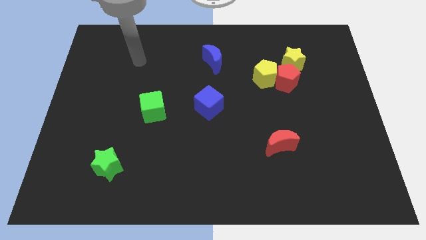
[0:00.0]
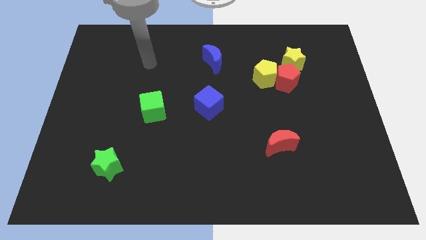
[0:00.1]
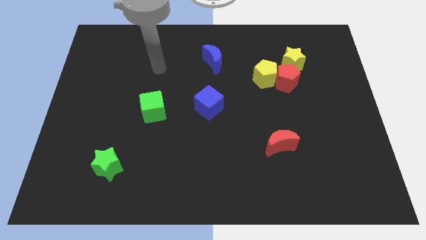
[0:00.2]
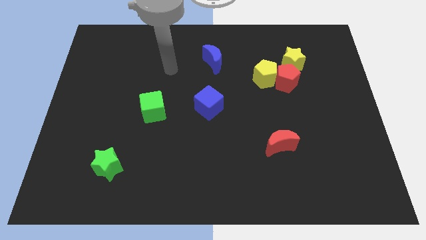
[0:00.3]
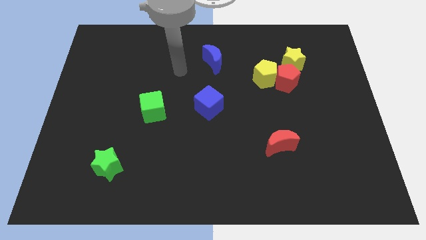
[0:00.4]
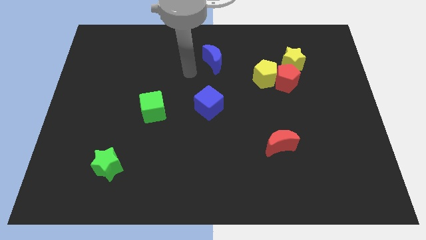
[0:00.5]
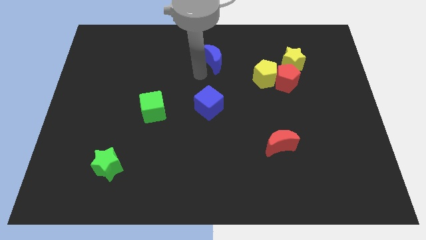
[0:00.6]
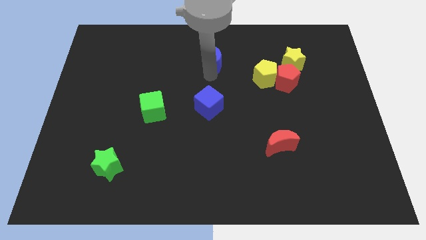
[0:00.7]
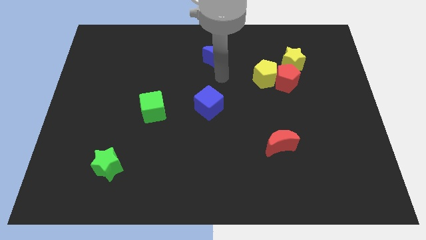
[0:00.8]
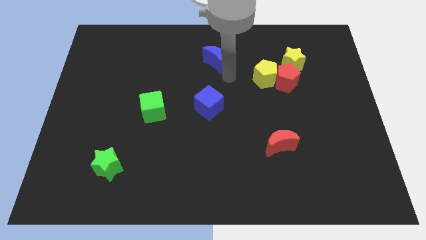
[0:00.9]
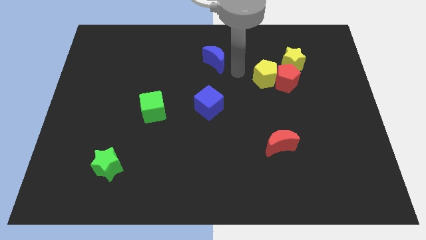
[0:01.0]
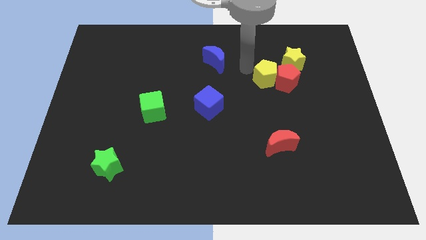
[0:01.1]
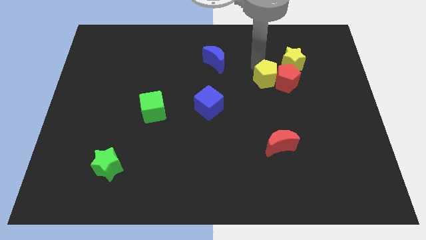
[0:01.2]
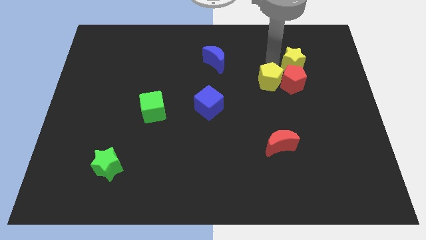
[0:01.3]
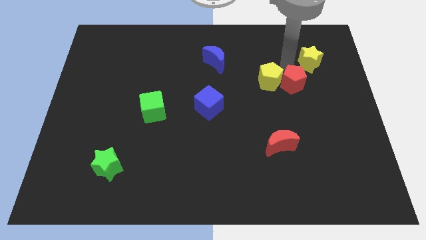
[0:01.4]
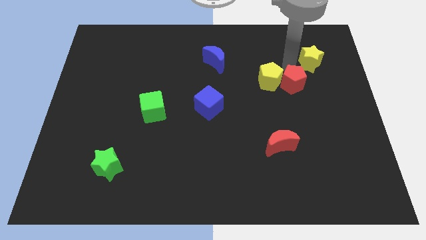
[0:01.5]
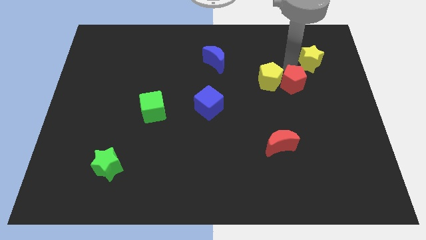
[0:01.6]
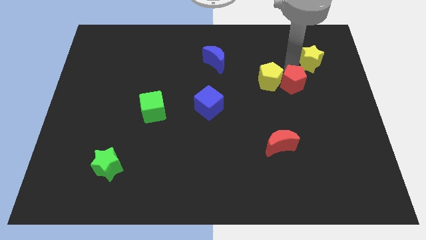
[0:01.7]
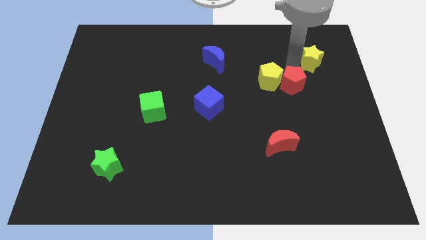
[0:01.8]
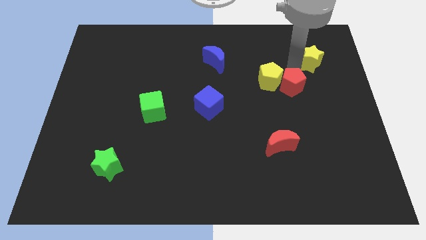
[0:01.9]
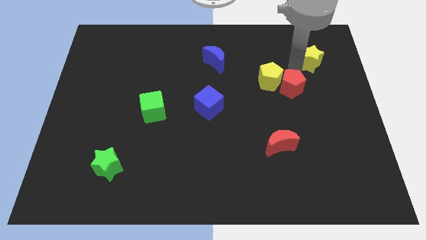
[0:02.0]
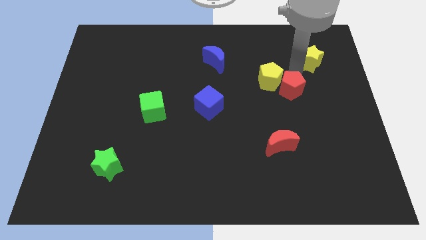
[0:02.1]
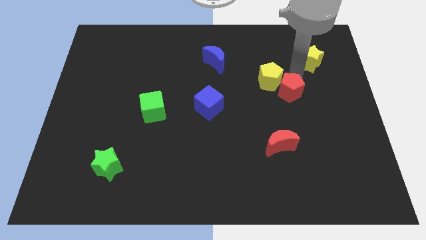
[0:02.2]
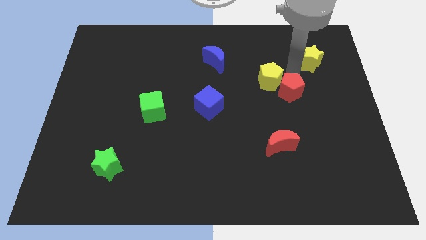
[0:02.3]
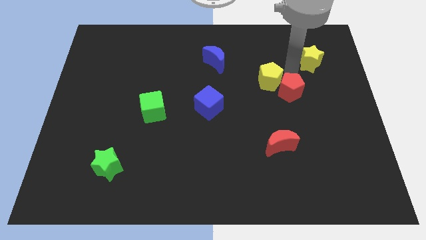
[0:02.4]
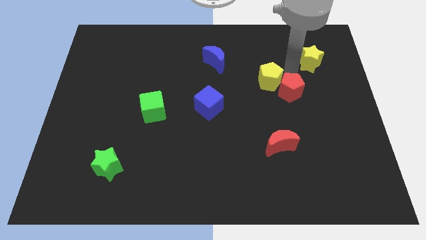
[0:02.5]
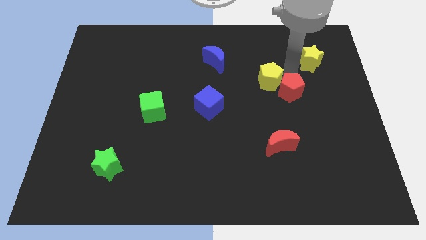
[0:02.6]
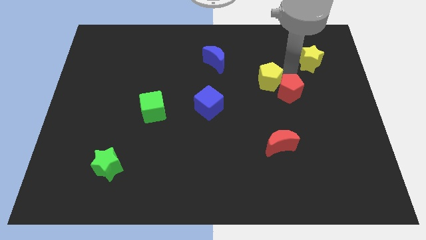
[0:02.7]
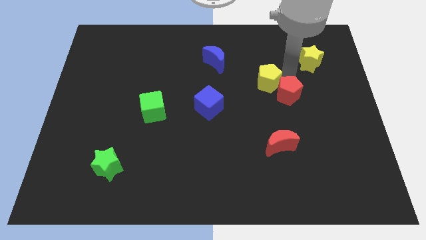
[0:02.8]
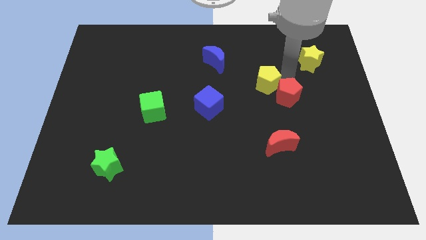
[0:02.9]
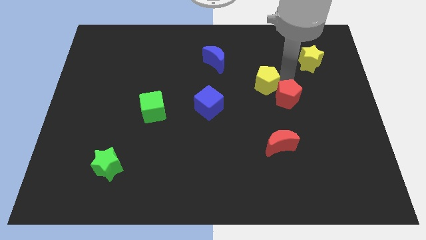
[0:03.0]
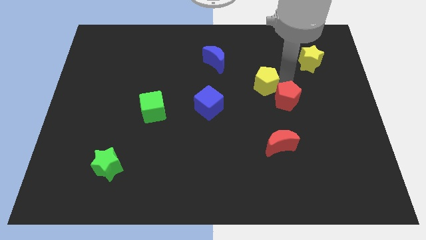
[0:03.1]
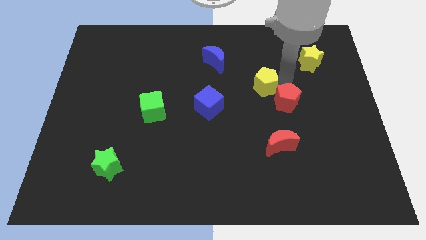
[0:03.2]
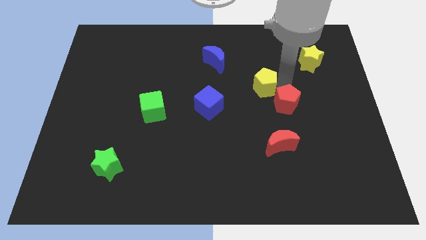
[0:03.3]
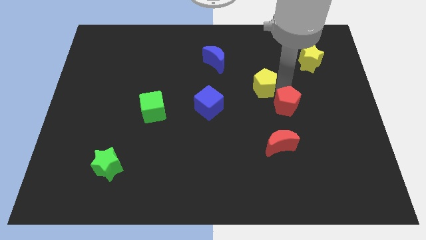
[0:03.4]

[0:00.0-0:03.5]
pull the red pentagon apart from the yellow pentagon and yellow star

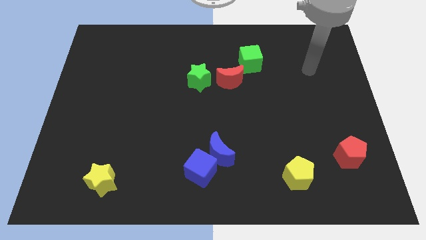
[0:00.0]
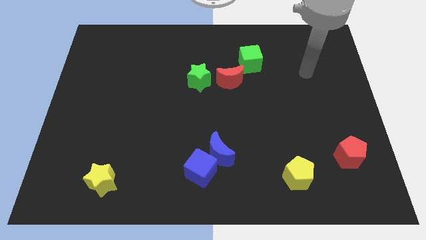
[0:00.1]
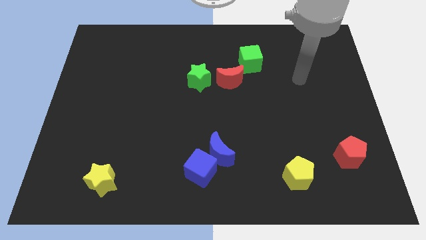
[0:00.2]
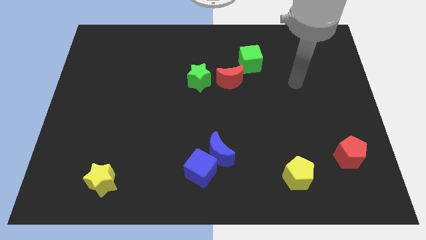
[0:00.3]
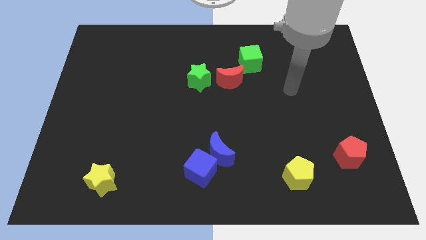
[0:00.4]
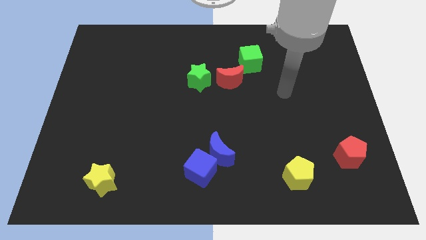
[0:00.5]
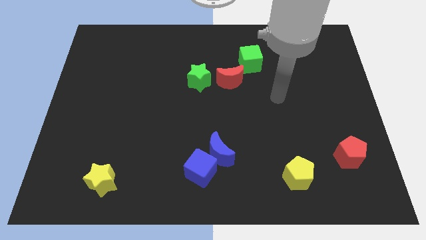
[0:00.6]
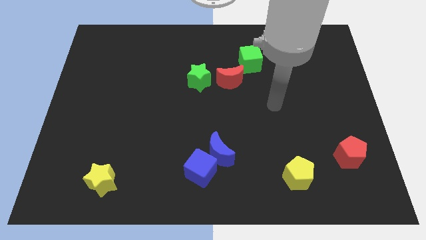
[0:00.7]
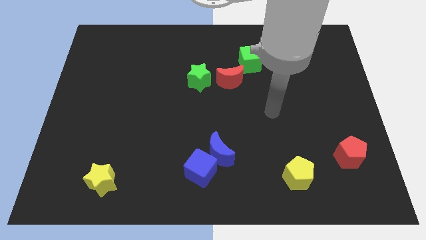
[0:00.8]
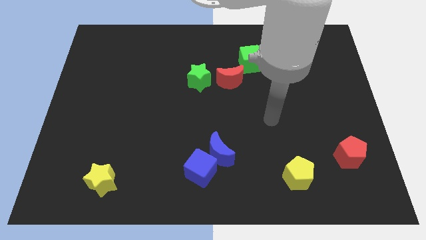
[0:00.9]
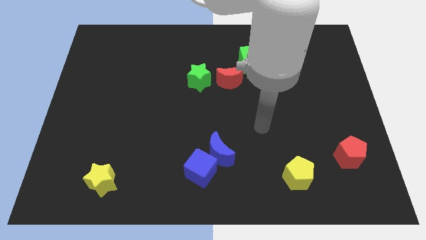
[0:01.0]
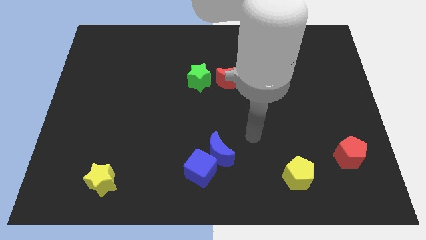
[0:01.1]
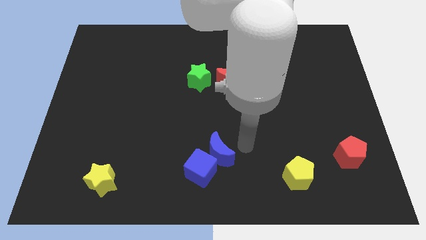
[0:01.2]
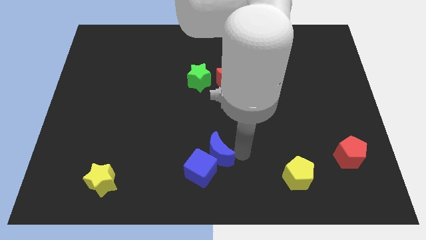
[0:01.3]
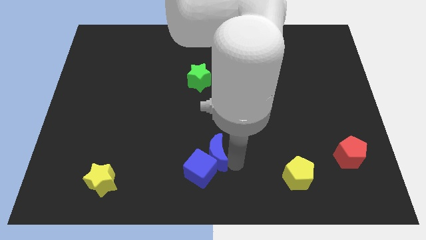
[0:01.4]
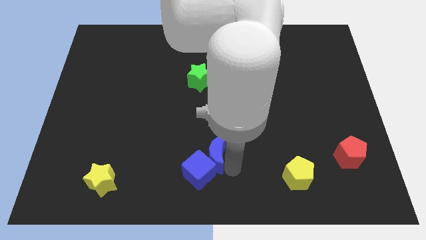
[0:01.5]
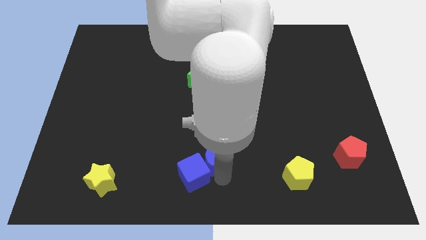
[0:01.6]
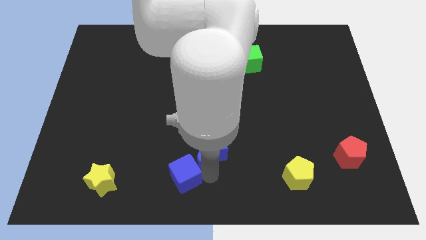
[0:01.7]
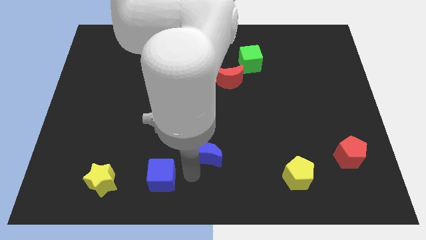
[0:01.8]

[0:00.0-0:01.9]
separate the blue moon from the blue cube

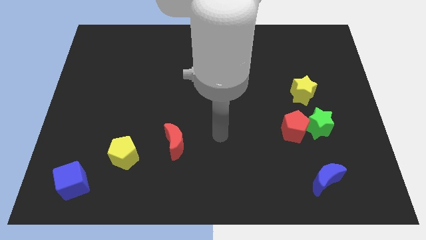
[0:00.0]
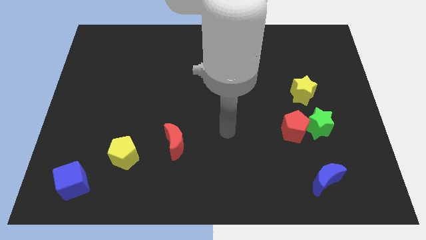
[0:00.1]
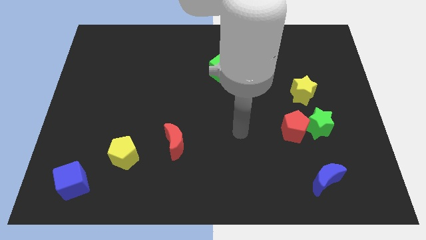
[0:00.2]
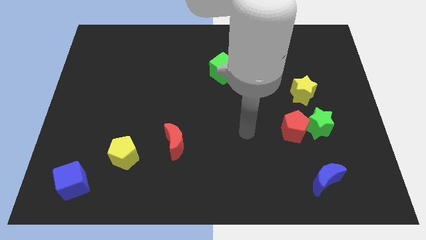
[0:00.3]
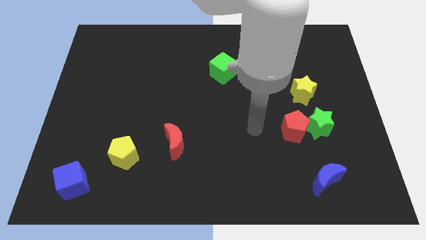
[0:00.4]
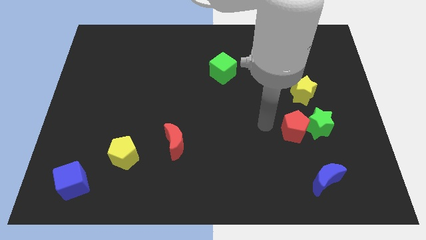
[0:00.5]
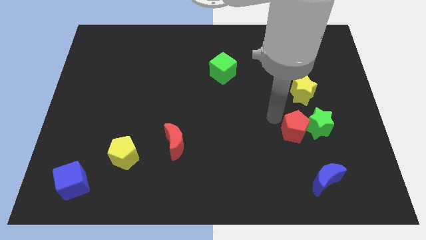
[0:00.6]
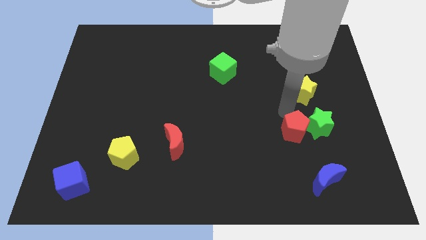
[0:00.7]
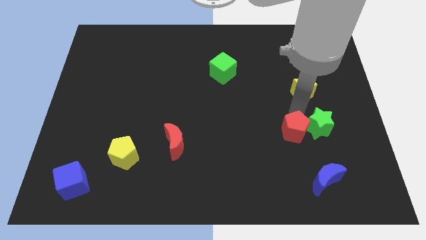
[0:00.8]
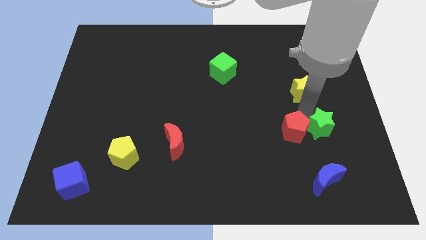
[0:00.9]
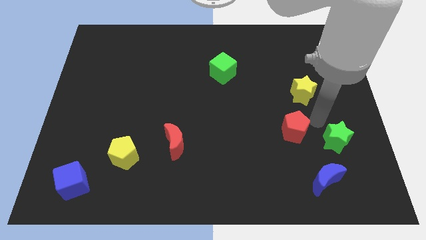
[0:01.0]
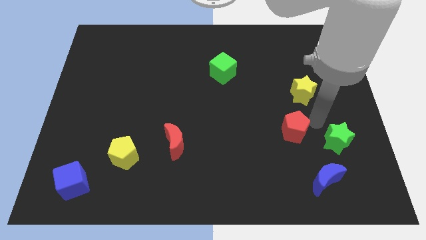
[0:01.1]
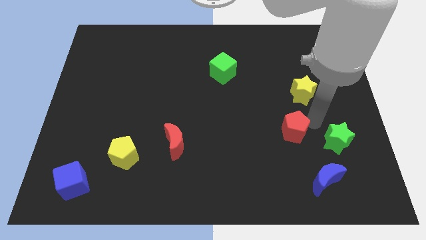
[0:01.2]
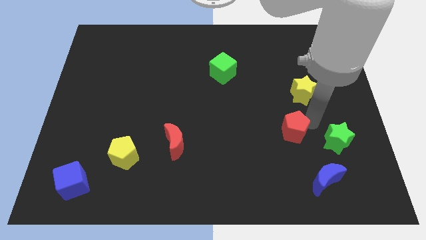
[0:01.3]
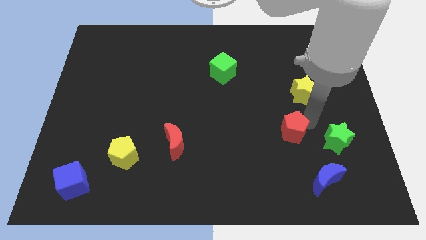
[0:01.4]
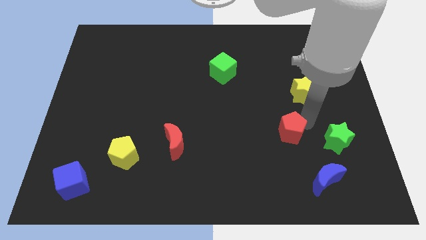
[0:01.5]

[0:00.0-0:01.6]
pull the red pentagon apart from the green star

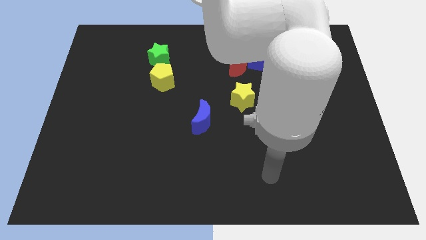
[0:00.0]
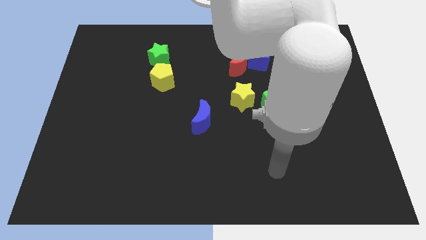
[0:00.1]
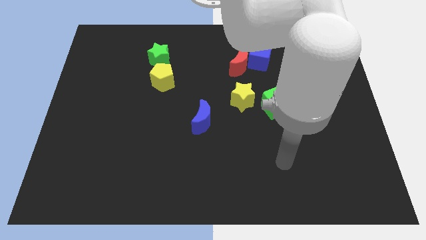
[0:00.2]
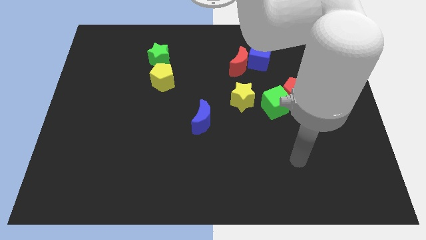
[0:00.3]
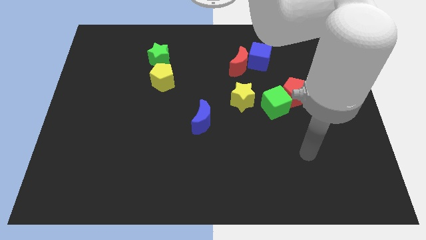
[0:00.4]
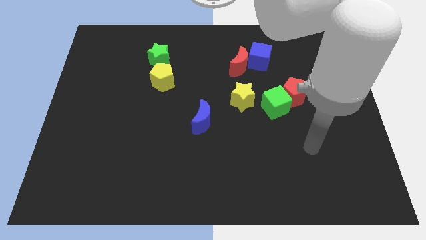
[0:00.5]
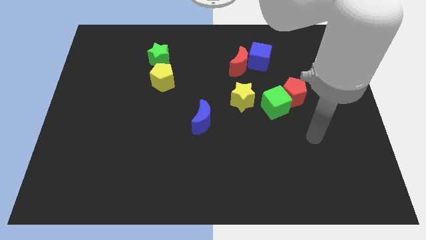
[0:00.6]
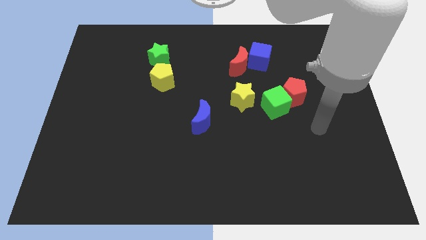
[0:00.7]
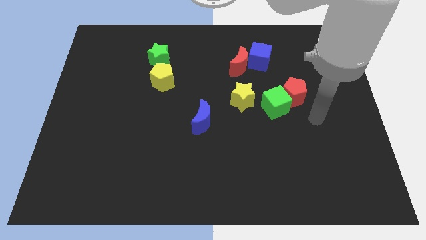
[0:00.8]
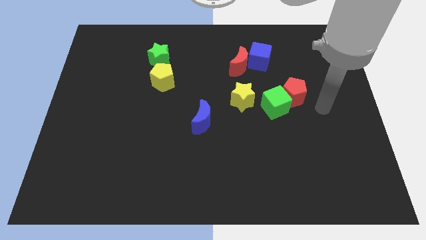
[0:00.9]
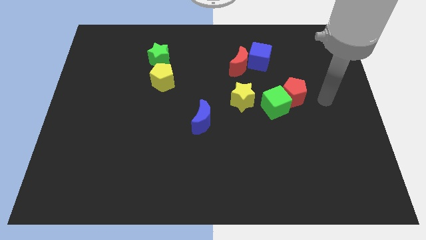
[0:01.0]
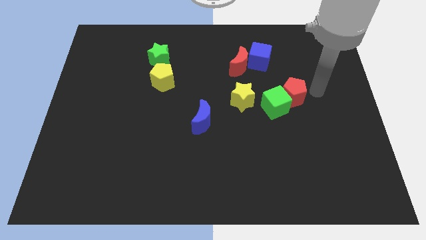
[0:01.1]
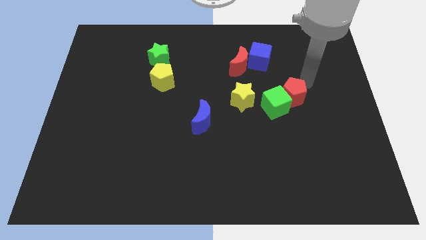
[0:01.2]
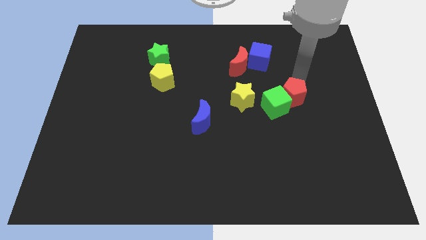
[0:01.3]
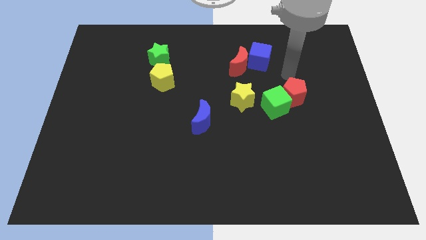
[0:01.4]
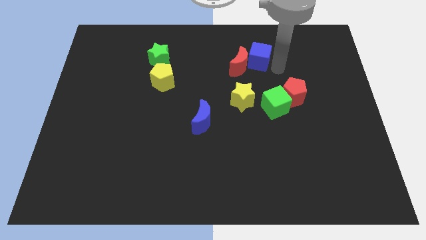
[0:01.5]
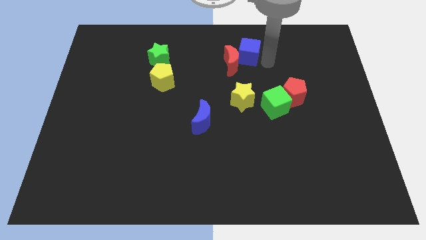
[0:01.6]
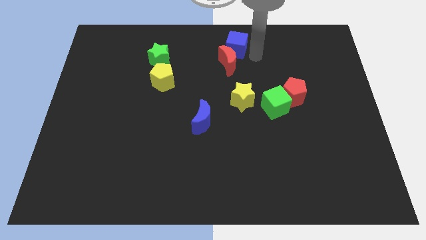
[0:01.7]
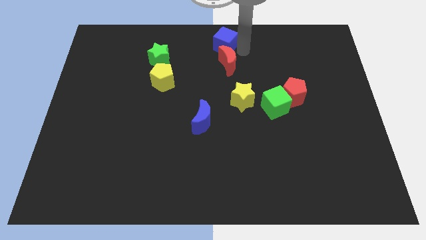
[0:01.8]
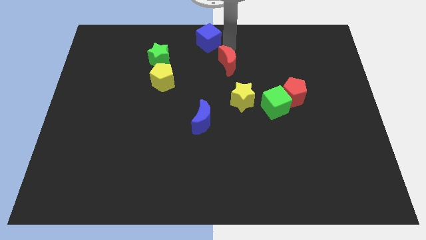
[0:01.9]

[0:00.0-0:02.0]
move the red moon away from the blue cube

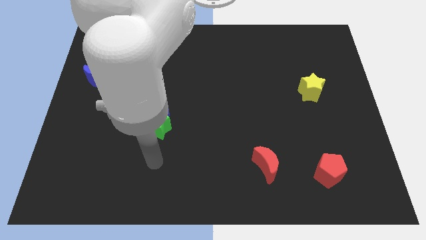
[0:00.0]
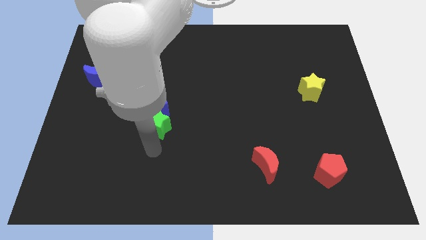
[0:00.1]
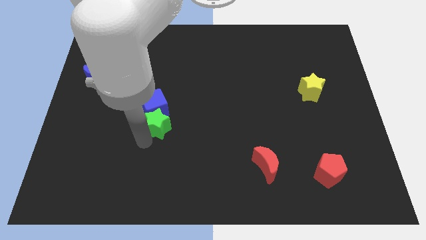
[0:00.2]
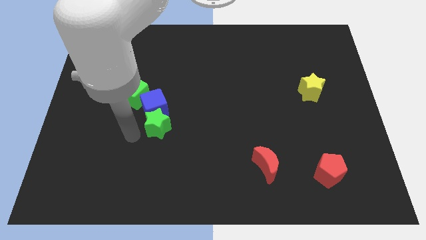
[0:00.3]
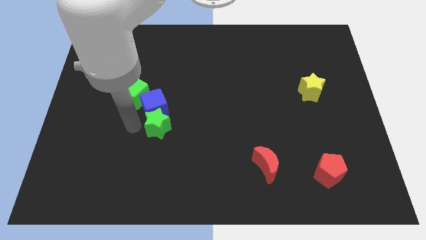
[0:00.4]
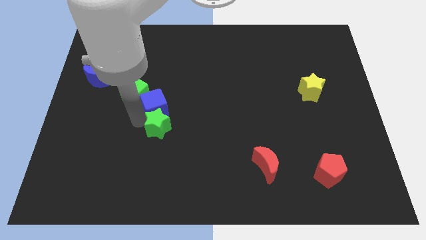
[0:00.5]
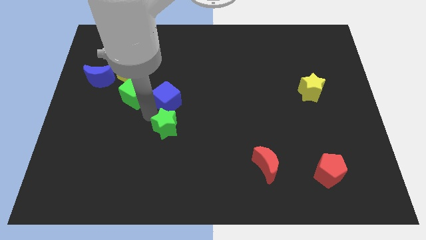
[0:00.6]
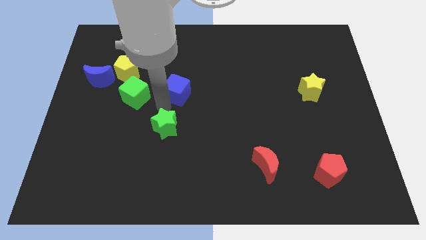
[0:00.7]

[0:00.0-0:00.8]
pull the green star apart from the blue cube
